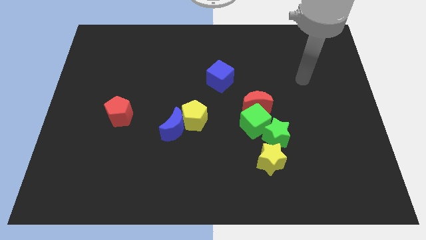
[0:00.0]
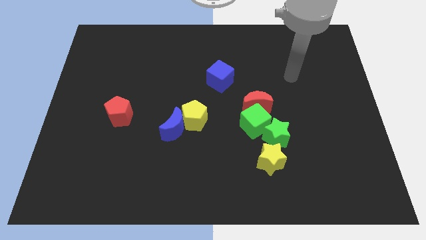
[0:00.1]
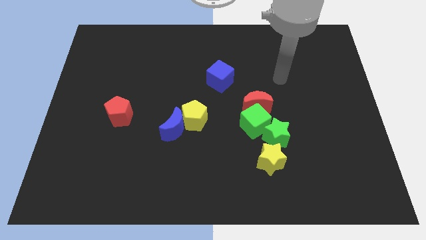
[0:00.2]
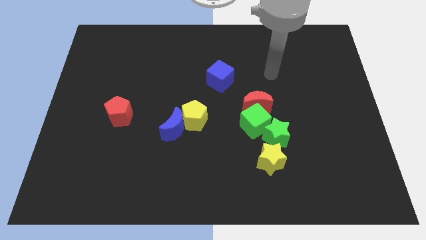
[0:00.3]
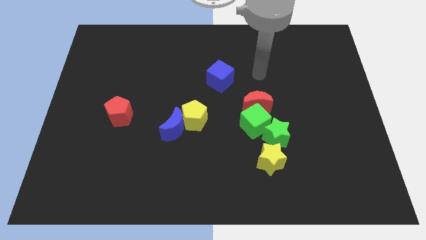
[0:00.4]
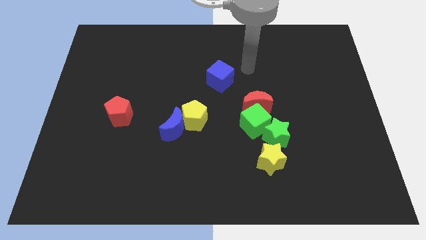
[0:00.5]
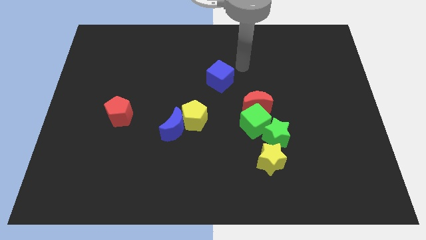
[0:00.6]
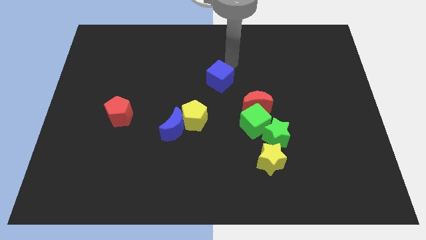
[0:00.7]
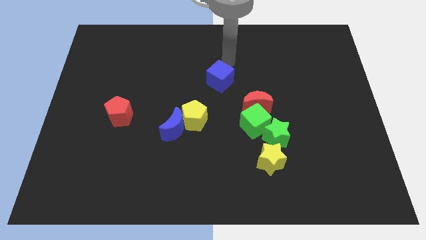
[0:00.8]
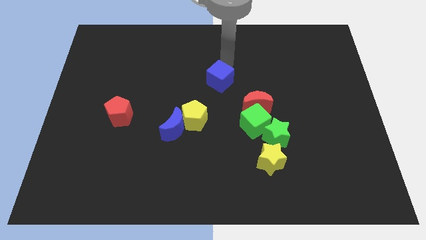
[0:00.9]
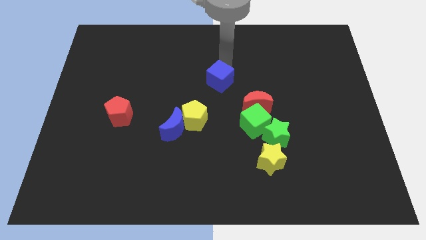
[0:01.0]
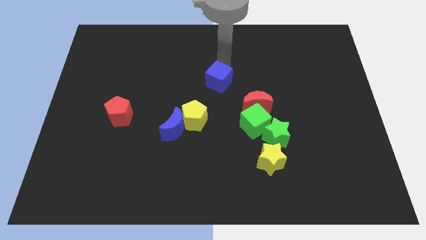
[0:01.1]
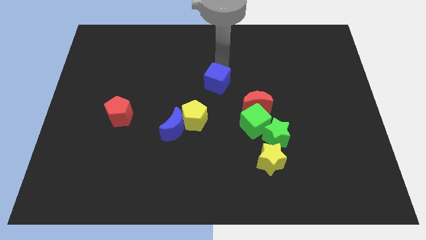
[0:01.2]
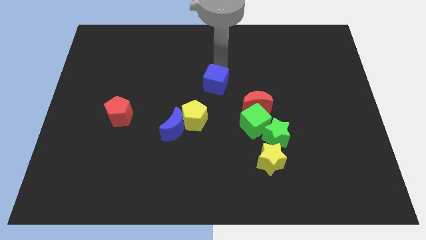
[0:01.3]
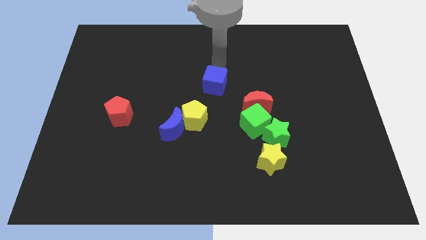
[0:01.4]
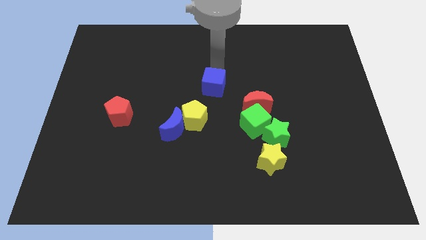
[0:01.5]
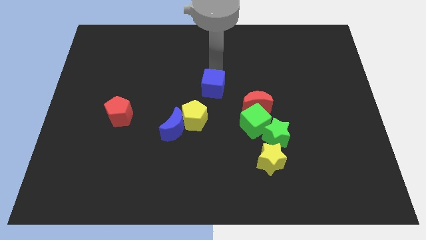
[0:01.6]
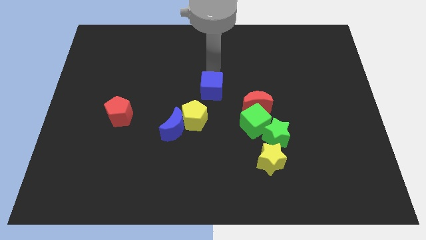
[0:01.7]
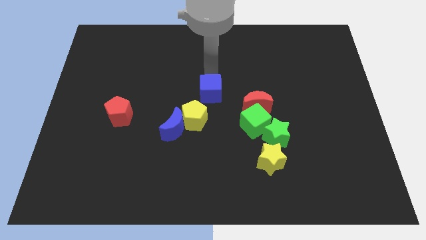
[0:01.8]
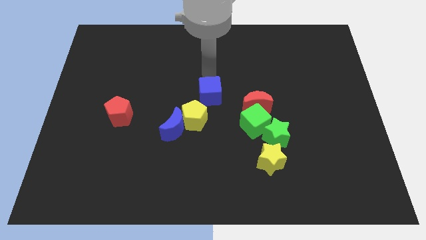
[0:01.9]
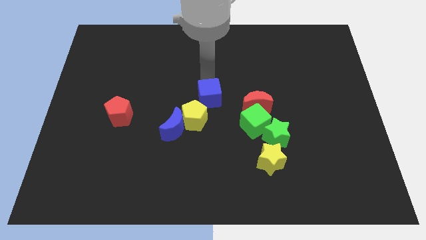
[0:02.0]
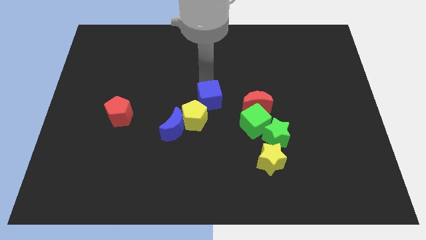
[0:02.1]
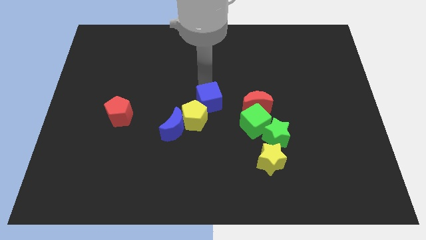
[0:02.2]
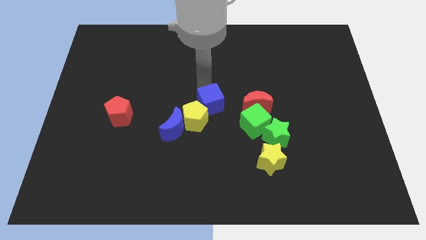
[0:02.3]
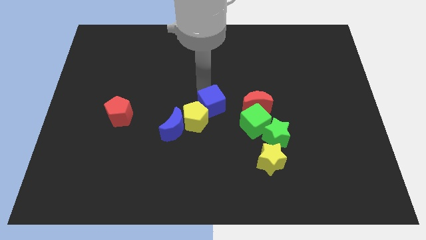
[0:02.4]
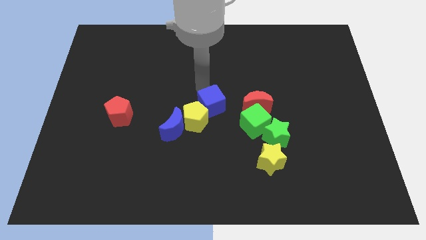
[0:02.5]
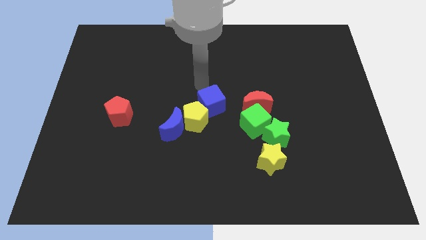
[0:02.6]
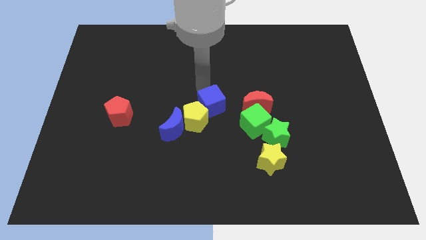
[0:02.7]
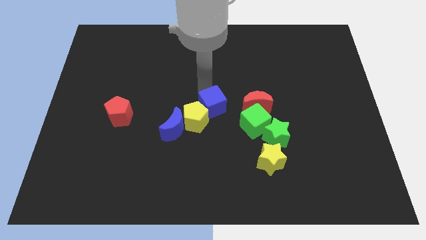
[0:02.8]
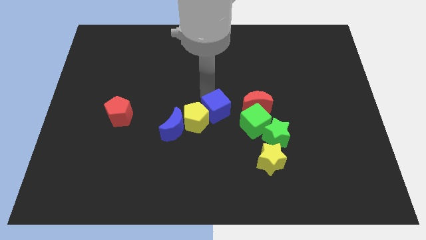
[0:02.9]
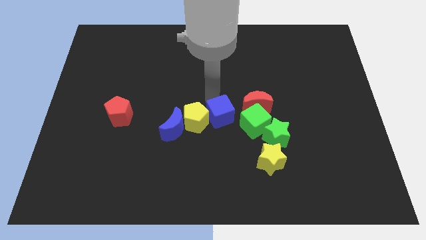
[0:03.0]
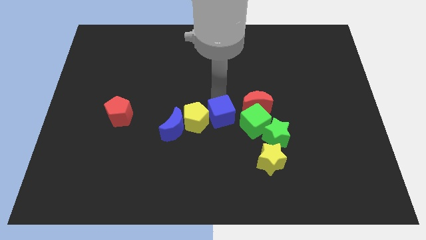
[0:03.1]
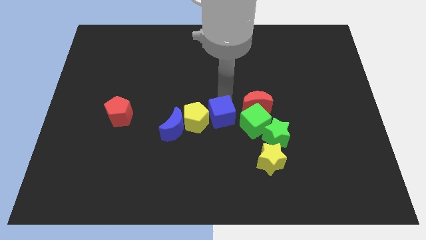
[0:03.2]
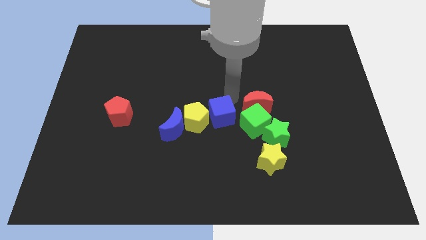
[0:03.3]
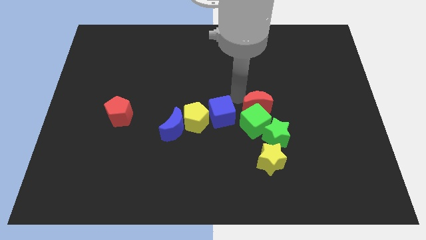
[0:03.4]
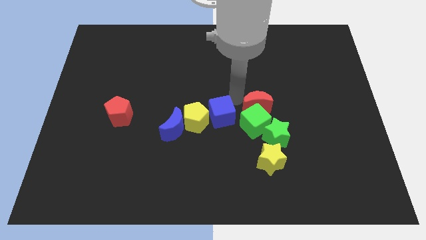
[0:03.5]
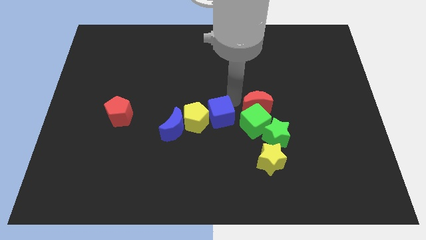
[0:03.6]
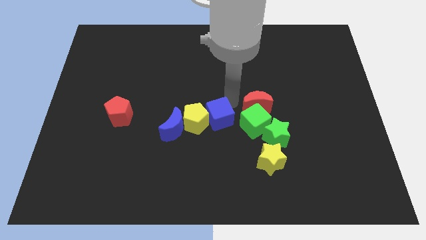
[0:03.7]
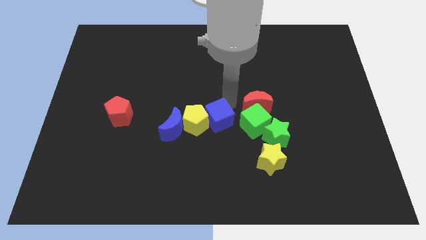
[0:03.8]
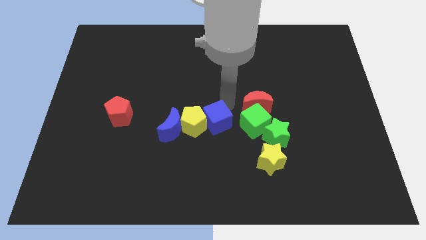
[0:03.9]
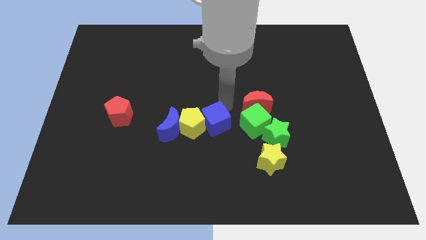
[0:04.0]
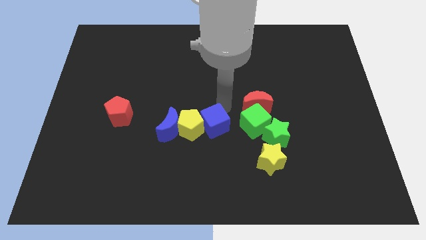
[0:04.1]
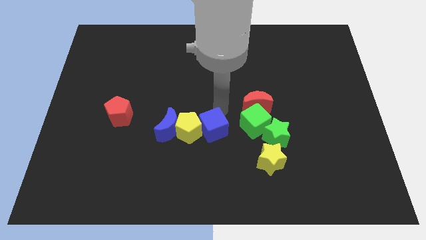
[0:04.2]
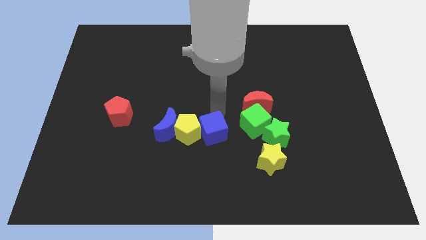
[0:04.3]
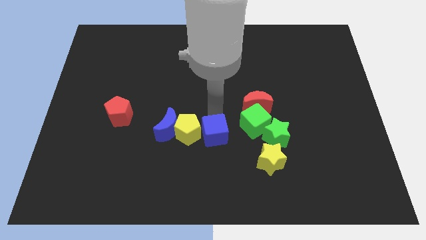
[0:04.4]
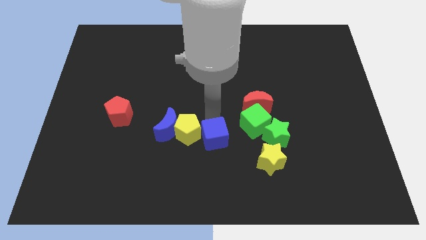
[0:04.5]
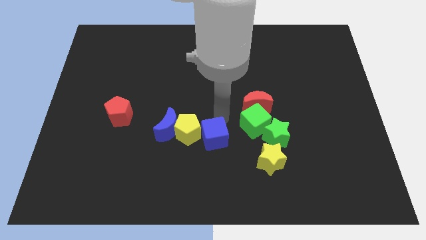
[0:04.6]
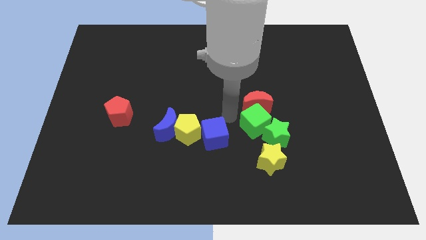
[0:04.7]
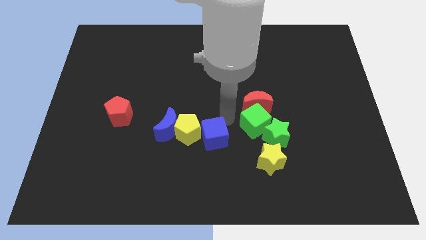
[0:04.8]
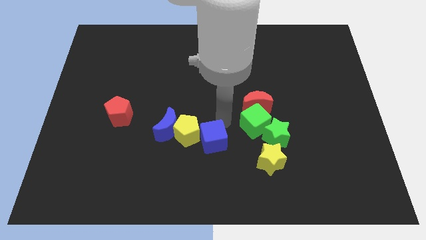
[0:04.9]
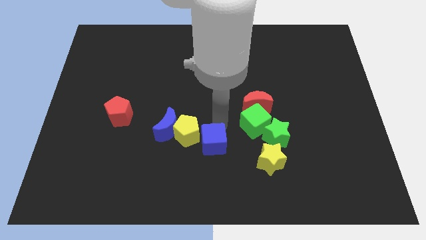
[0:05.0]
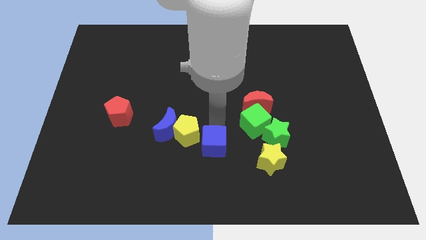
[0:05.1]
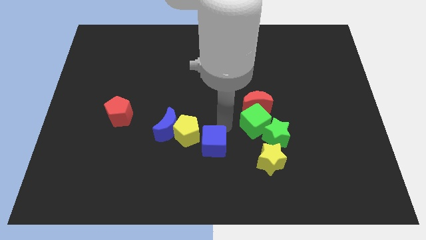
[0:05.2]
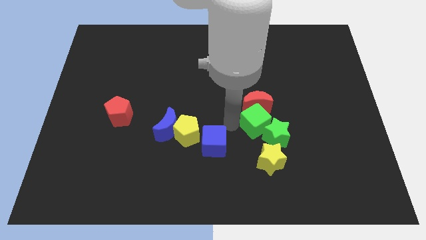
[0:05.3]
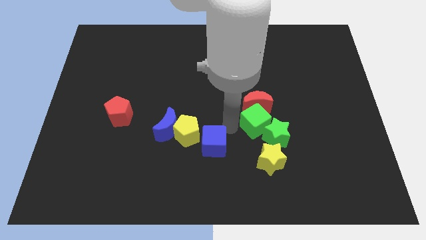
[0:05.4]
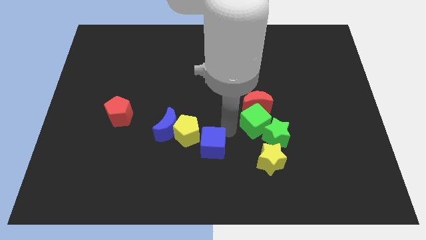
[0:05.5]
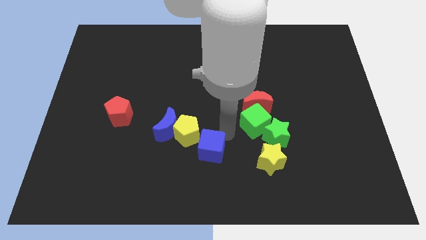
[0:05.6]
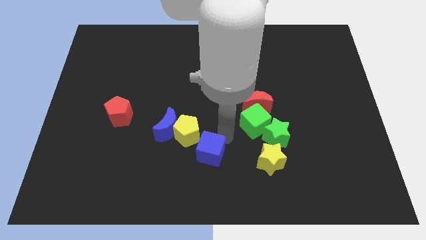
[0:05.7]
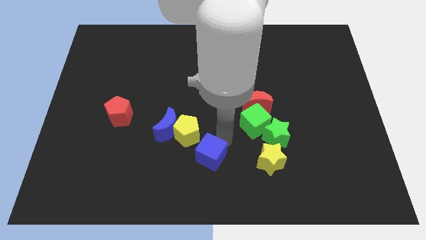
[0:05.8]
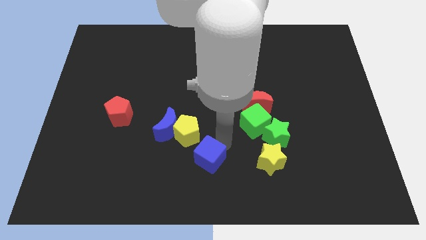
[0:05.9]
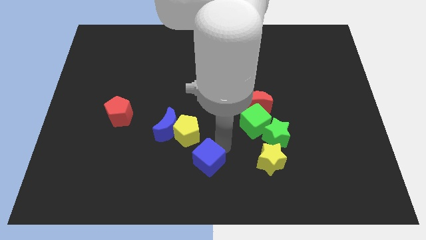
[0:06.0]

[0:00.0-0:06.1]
put the blue cube to the bottom of the yellow pentagon

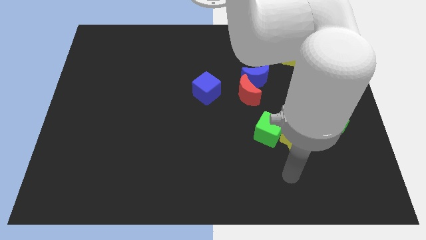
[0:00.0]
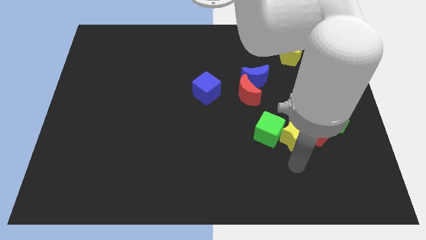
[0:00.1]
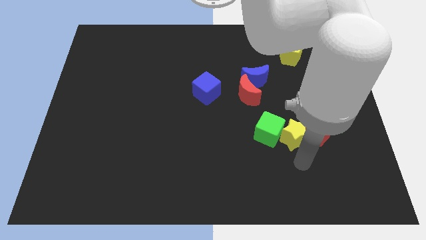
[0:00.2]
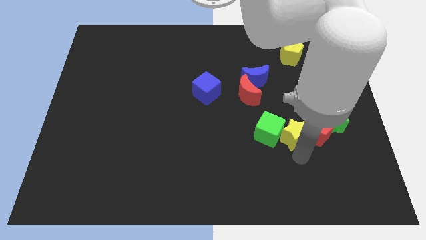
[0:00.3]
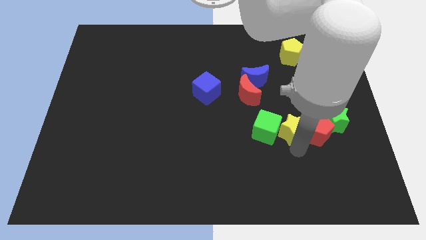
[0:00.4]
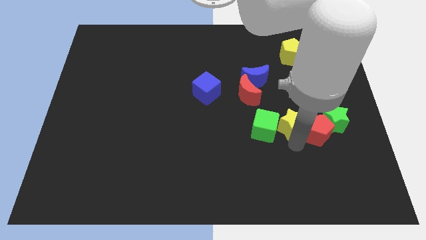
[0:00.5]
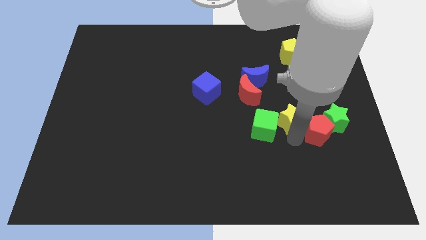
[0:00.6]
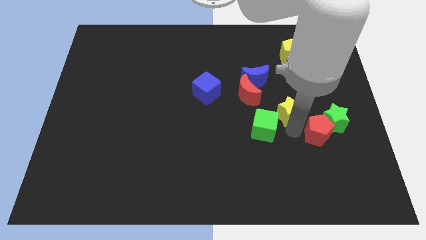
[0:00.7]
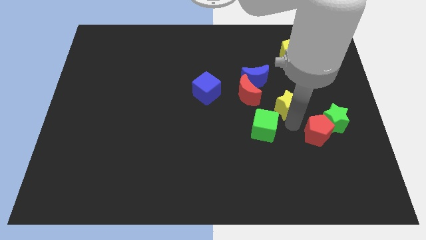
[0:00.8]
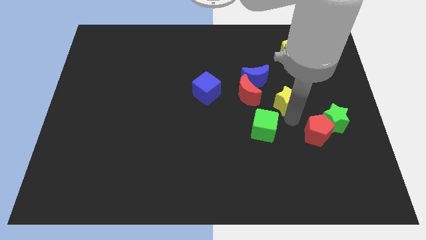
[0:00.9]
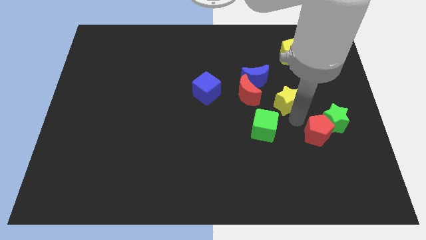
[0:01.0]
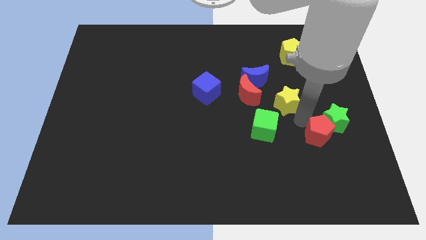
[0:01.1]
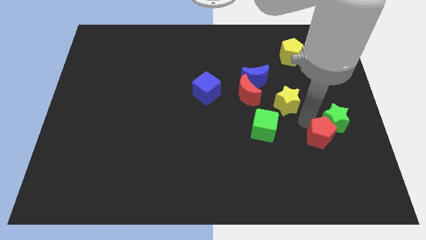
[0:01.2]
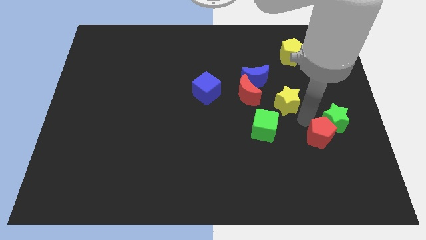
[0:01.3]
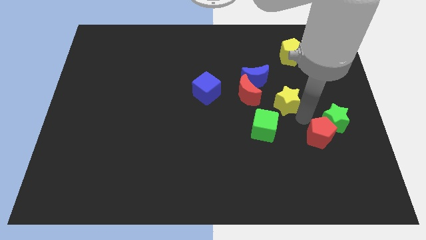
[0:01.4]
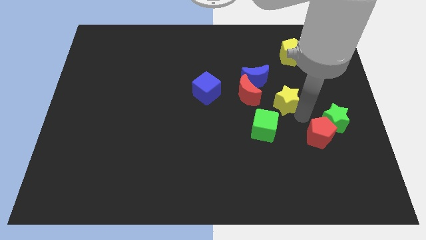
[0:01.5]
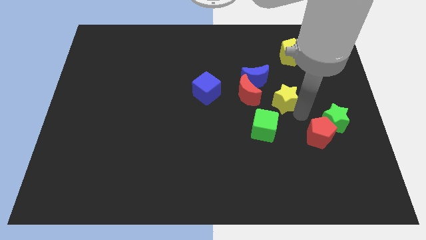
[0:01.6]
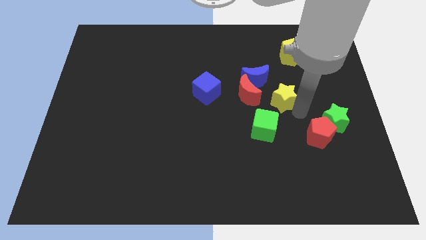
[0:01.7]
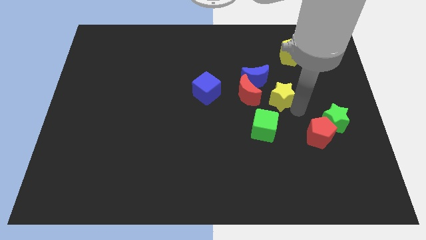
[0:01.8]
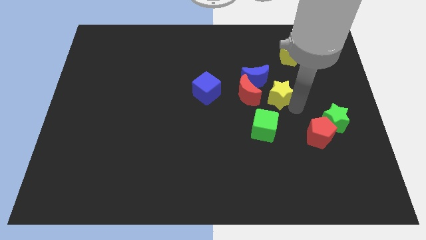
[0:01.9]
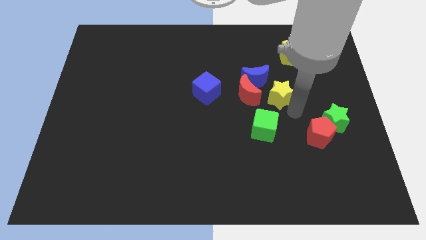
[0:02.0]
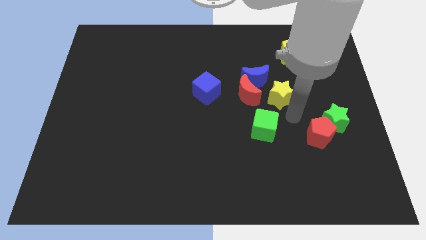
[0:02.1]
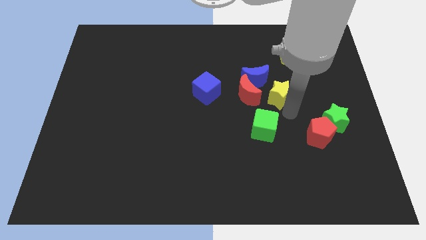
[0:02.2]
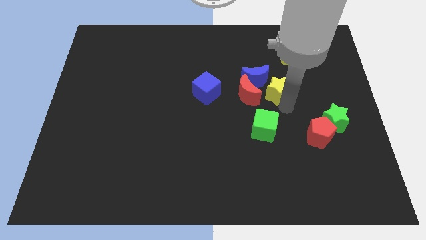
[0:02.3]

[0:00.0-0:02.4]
move the yellow star to the top right of the red moon

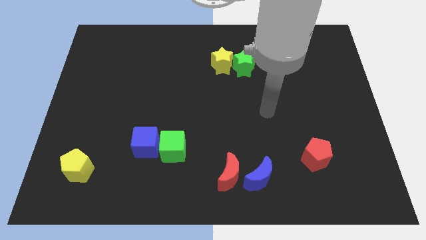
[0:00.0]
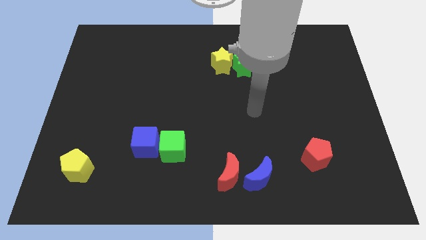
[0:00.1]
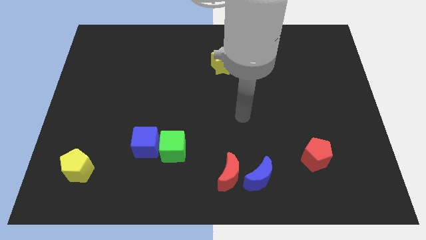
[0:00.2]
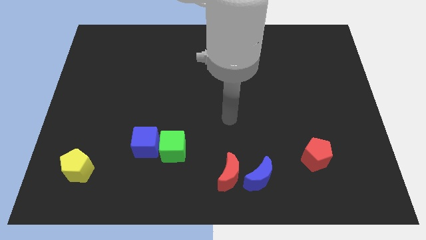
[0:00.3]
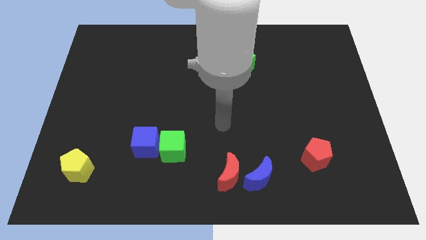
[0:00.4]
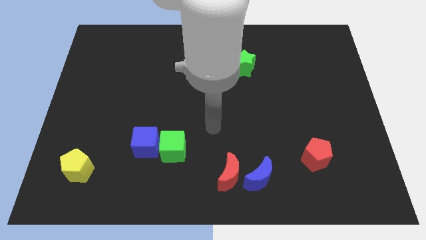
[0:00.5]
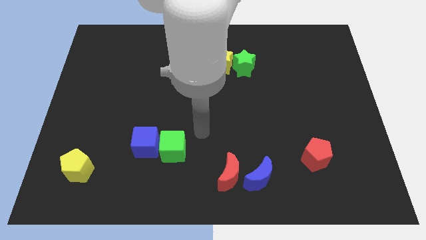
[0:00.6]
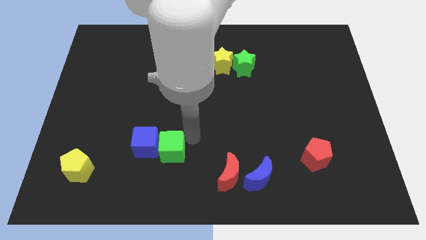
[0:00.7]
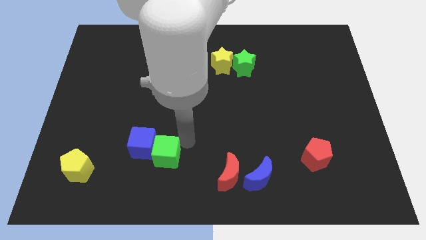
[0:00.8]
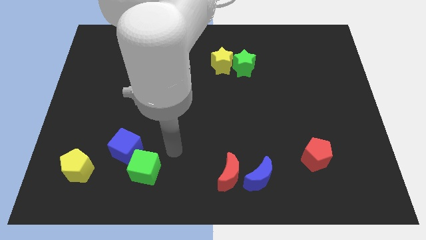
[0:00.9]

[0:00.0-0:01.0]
slide the blue cube to the top right side of the yellow pentagon
